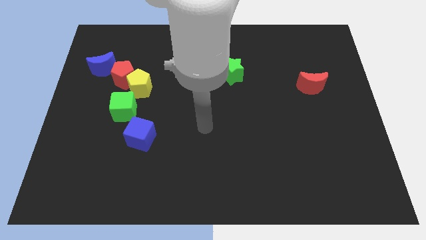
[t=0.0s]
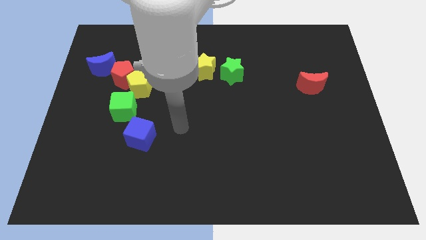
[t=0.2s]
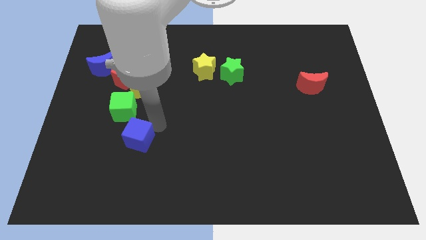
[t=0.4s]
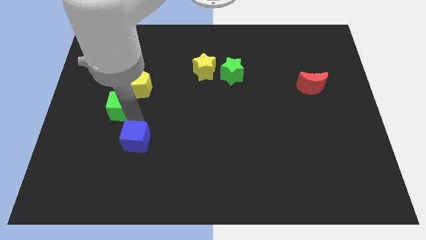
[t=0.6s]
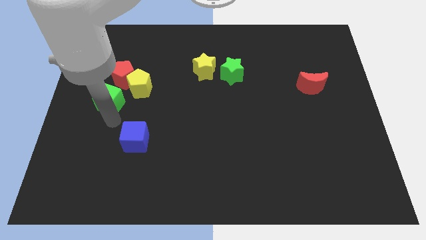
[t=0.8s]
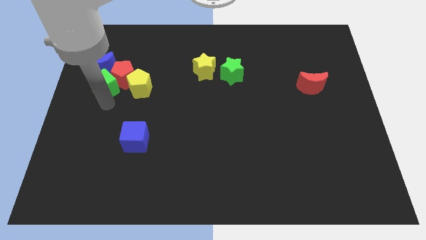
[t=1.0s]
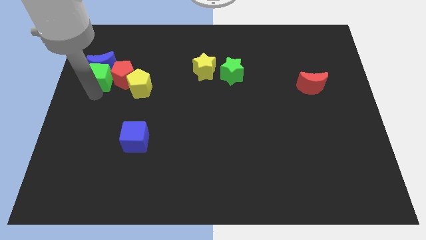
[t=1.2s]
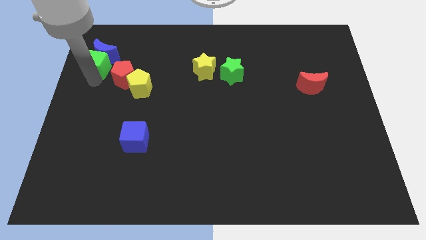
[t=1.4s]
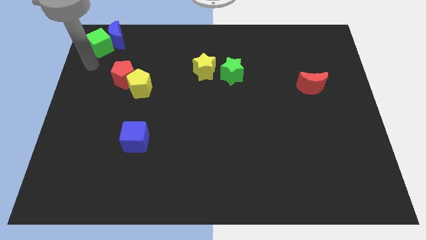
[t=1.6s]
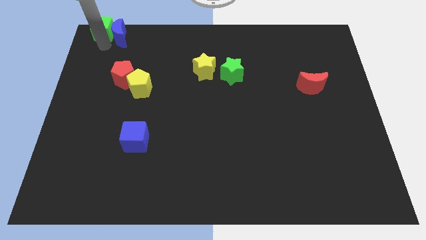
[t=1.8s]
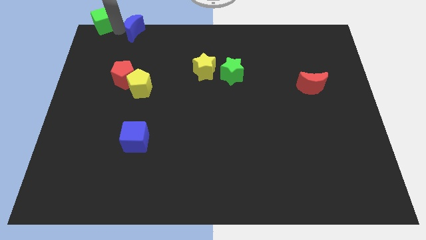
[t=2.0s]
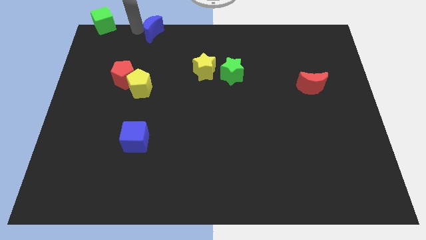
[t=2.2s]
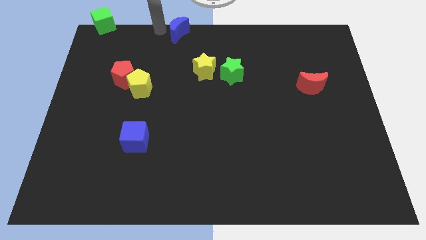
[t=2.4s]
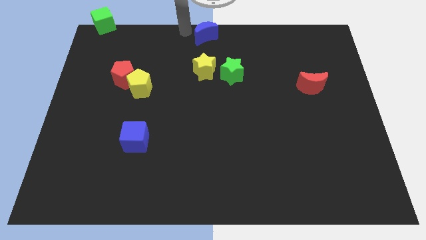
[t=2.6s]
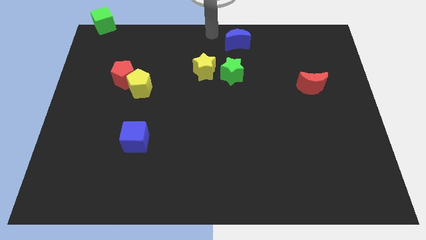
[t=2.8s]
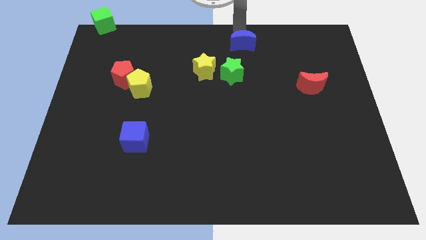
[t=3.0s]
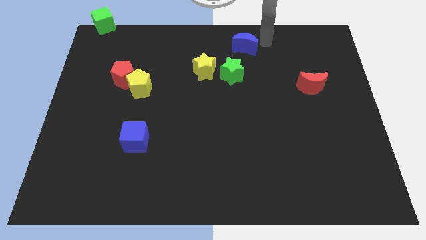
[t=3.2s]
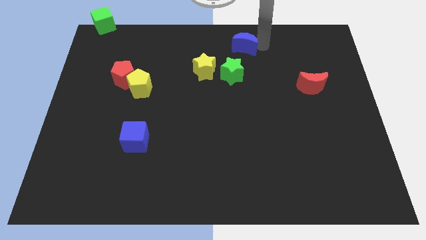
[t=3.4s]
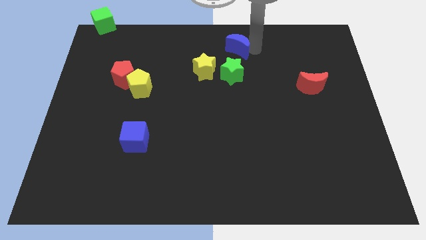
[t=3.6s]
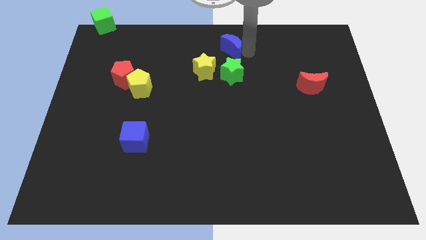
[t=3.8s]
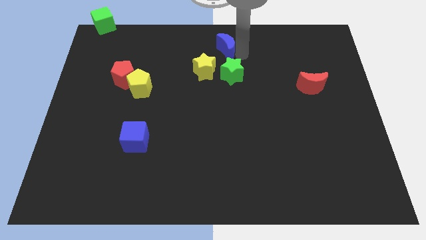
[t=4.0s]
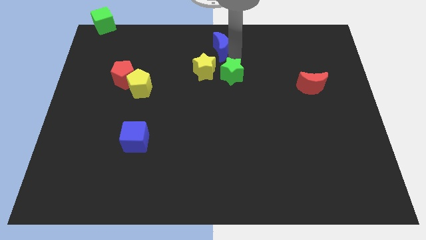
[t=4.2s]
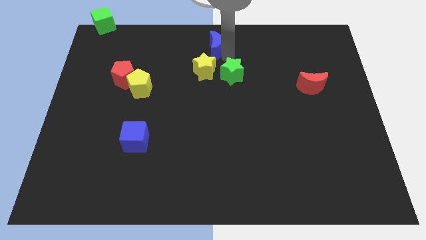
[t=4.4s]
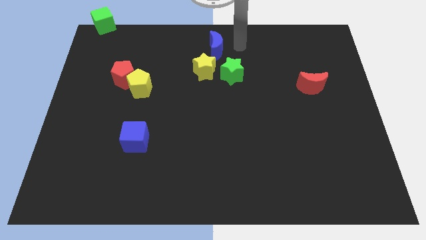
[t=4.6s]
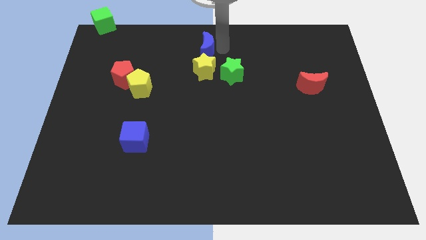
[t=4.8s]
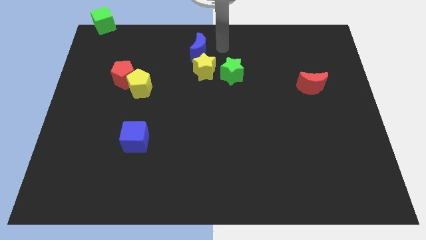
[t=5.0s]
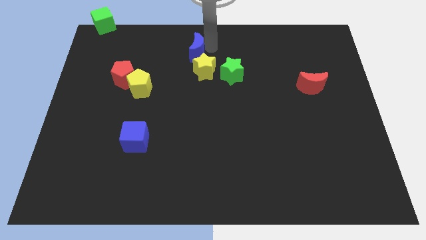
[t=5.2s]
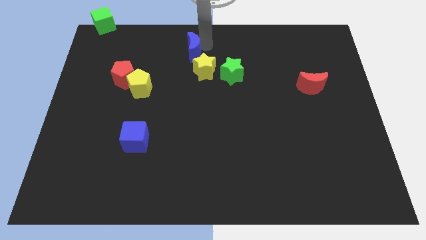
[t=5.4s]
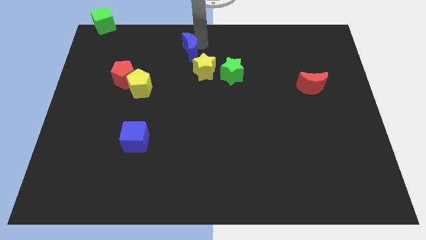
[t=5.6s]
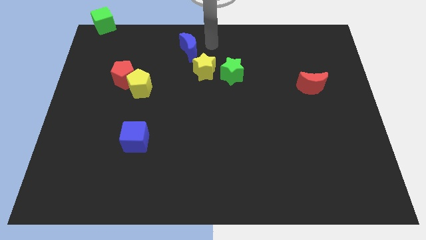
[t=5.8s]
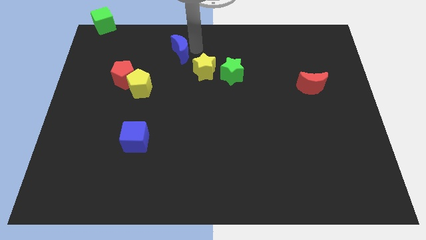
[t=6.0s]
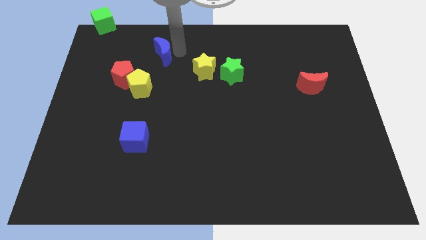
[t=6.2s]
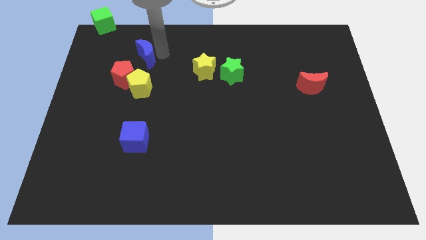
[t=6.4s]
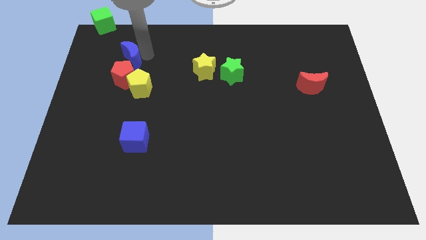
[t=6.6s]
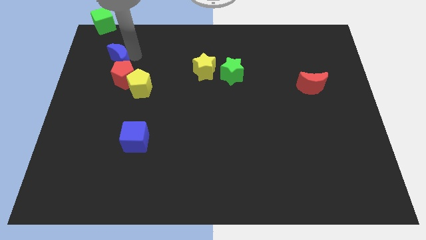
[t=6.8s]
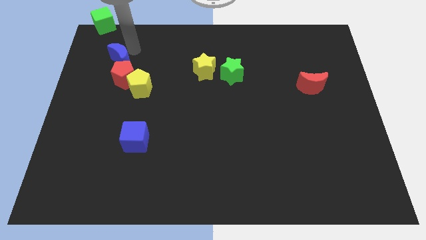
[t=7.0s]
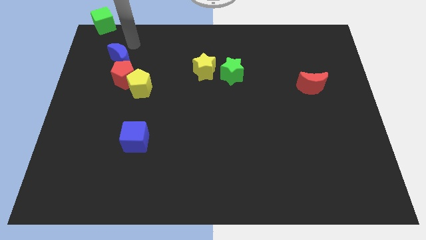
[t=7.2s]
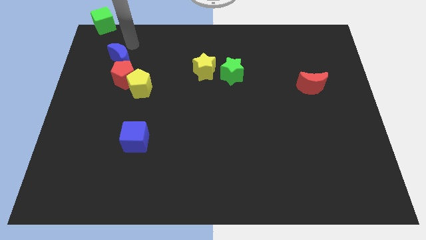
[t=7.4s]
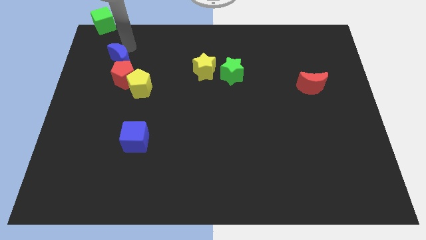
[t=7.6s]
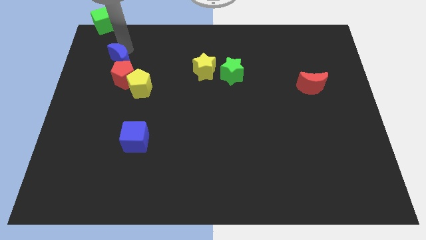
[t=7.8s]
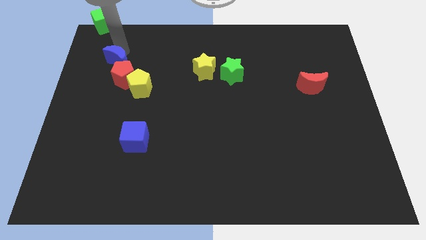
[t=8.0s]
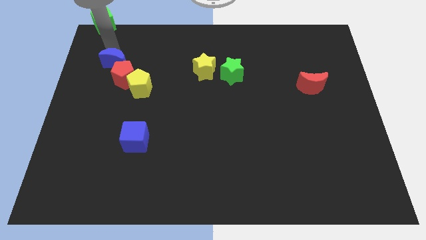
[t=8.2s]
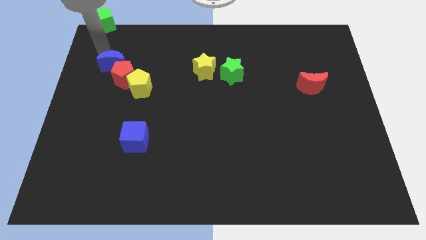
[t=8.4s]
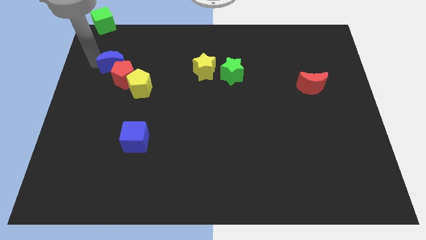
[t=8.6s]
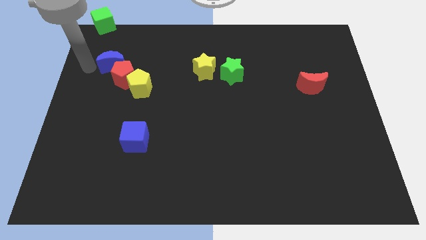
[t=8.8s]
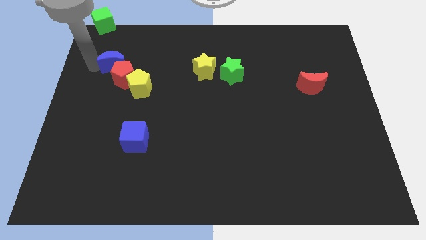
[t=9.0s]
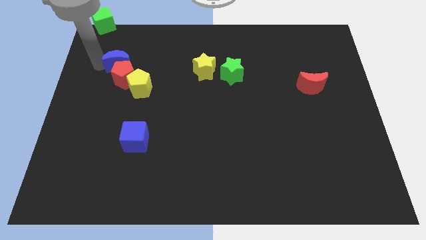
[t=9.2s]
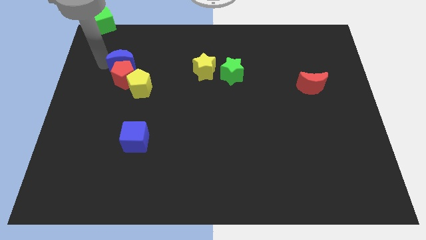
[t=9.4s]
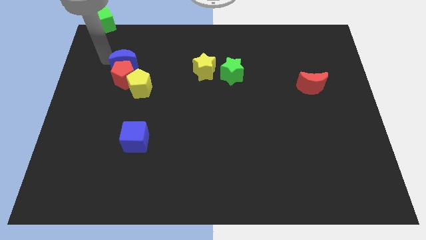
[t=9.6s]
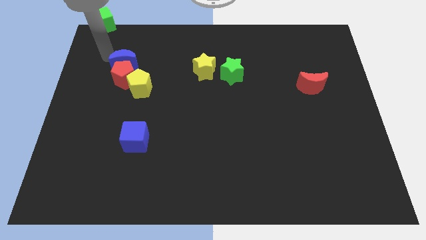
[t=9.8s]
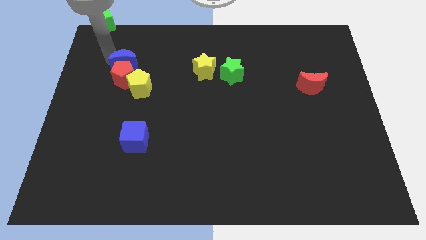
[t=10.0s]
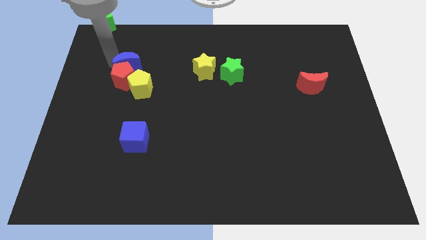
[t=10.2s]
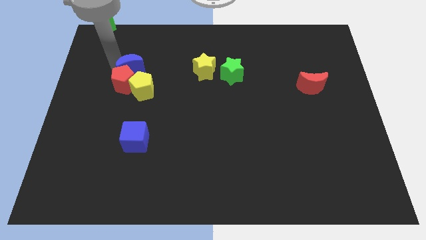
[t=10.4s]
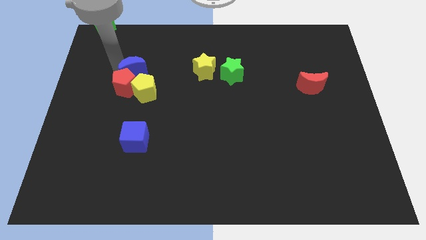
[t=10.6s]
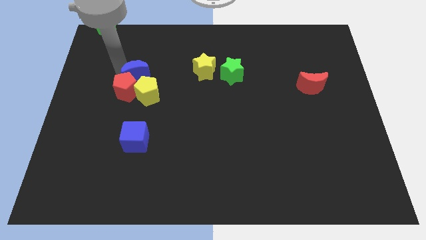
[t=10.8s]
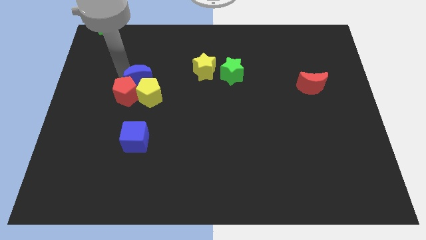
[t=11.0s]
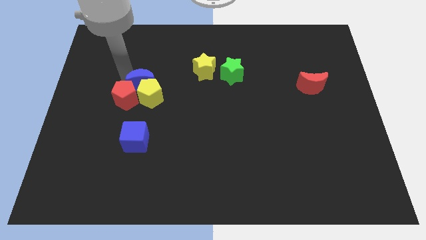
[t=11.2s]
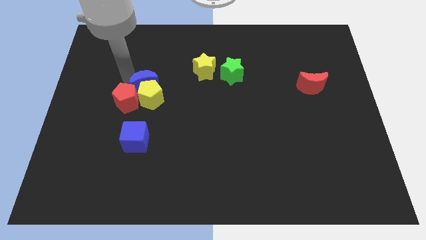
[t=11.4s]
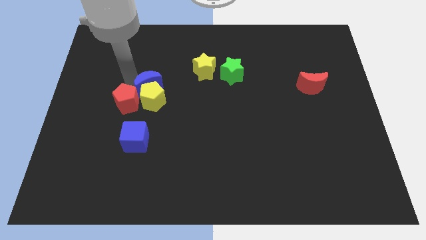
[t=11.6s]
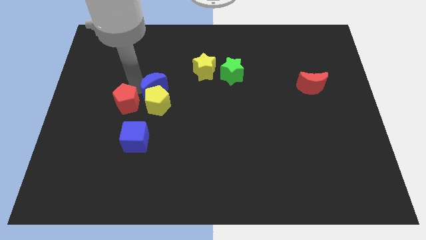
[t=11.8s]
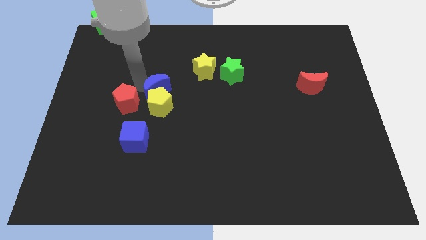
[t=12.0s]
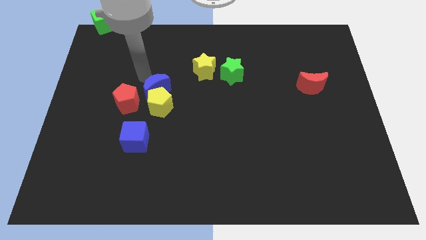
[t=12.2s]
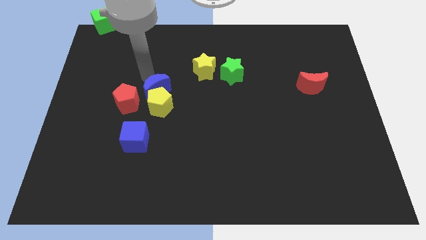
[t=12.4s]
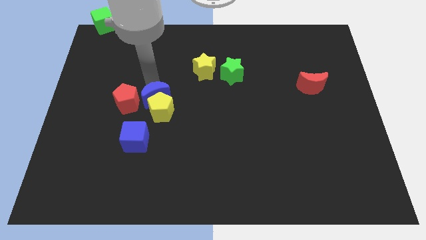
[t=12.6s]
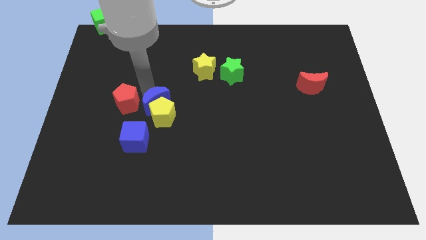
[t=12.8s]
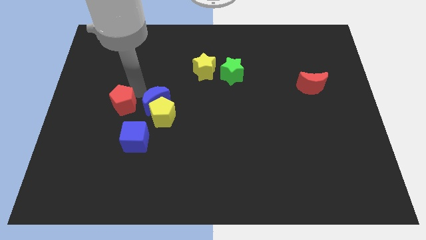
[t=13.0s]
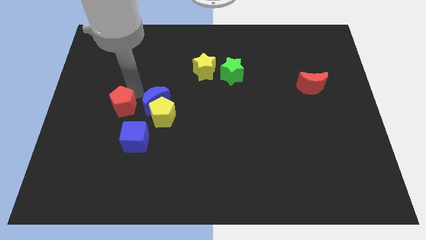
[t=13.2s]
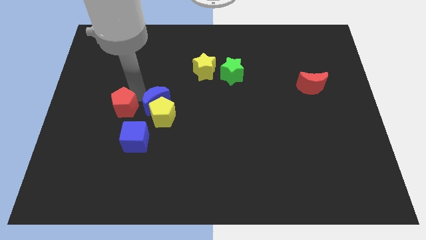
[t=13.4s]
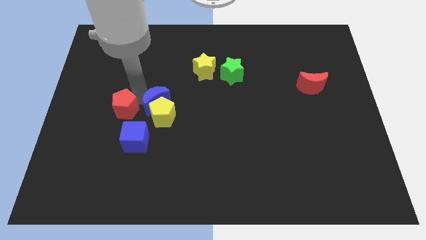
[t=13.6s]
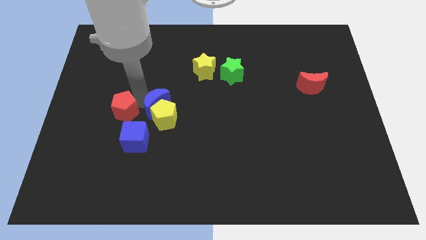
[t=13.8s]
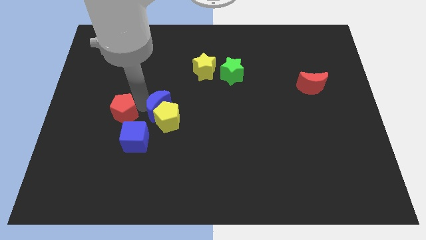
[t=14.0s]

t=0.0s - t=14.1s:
push the blue moon down and right diagonally

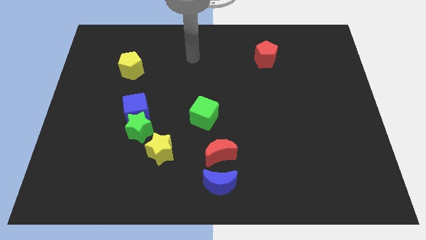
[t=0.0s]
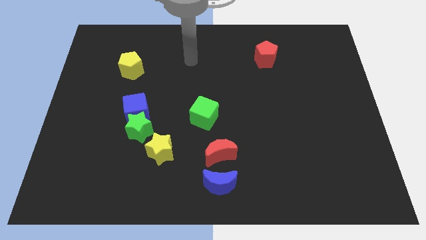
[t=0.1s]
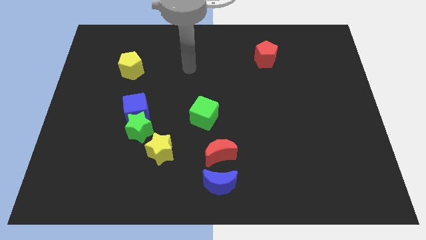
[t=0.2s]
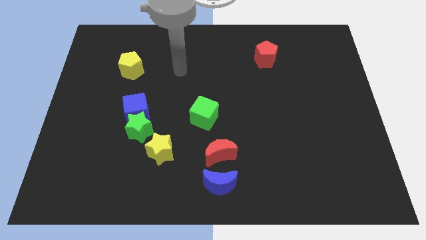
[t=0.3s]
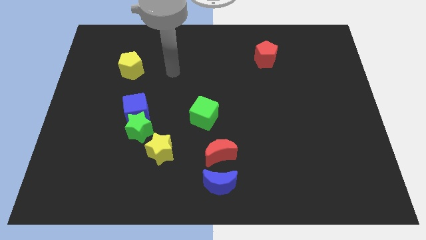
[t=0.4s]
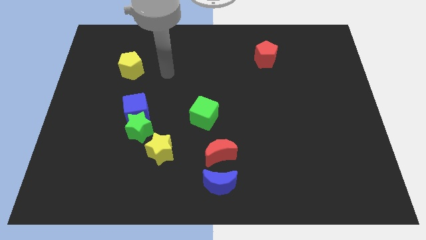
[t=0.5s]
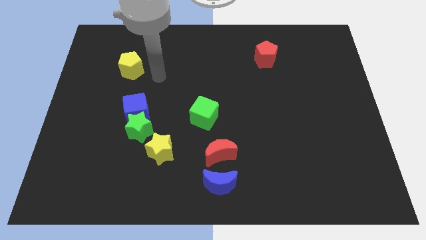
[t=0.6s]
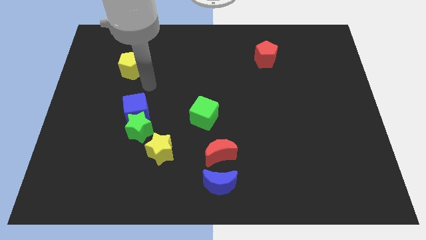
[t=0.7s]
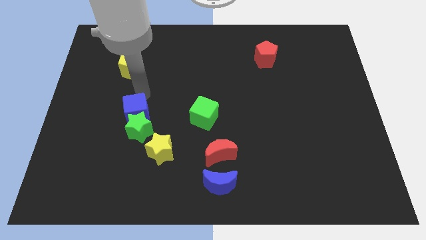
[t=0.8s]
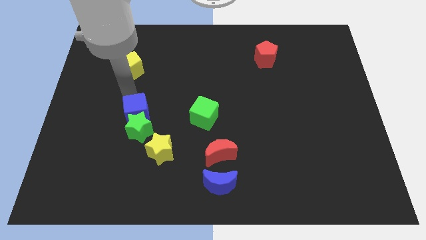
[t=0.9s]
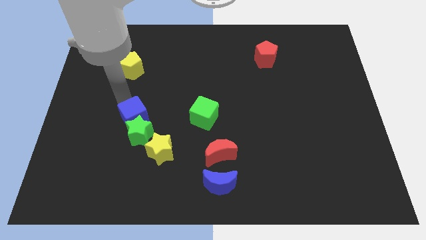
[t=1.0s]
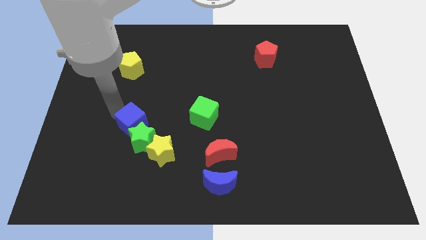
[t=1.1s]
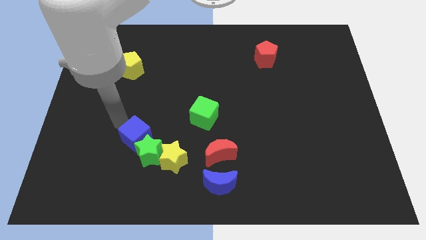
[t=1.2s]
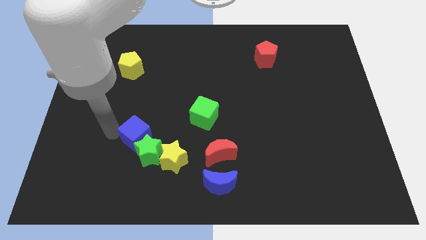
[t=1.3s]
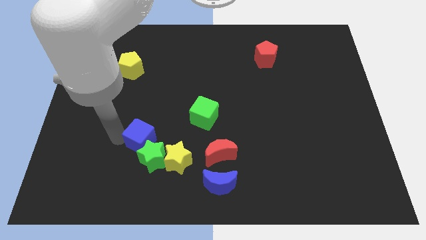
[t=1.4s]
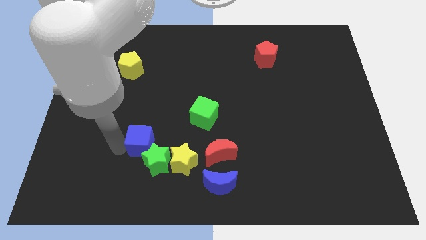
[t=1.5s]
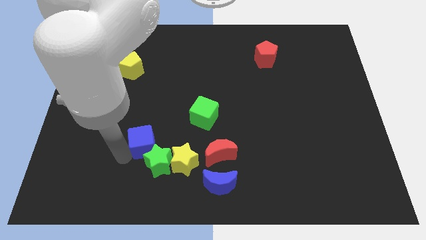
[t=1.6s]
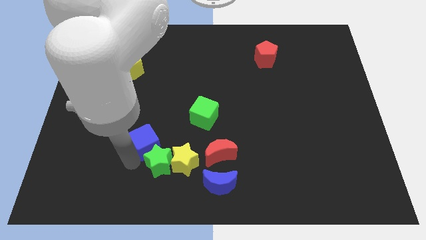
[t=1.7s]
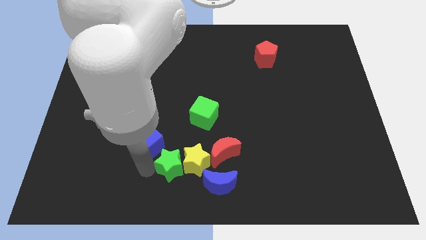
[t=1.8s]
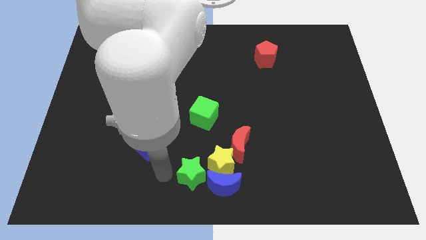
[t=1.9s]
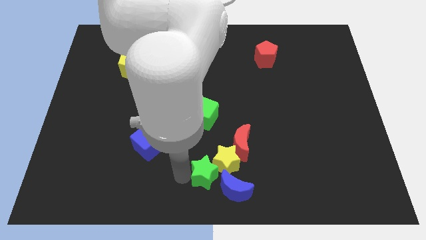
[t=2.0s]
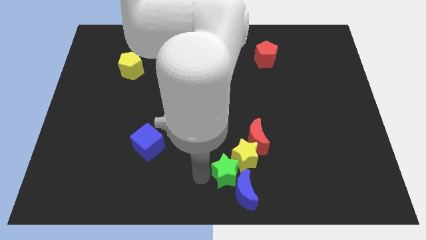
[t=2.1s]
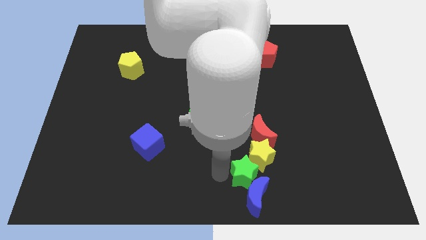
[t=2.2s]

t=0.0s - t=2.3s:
move the yellow star to the right
